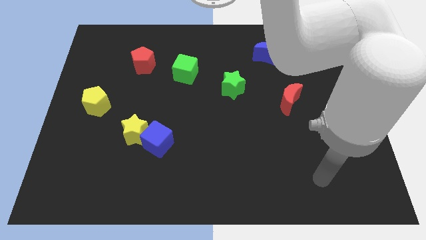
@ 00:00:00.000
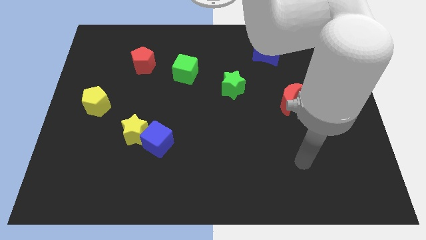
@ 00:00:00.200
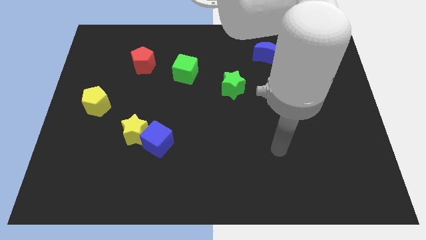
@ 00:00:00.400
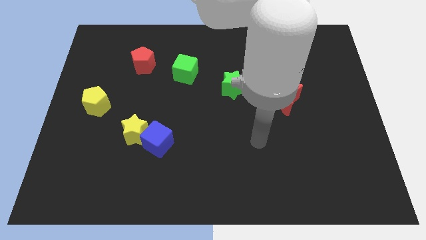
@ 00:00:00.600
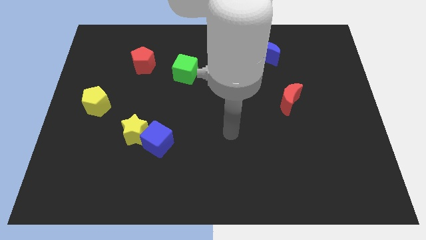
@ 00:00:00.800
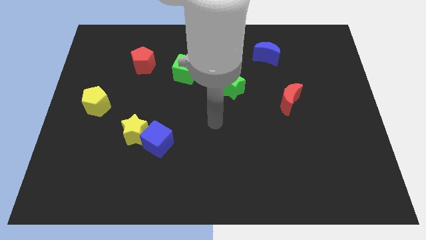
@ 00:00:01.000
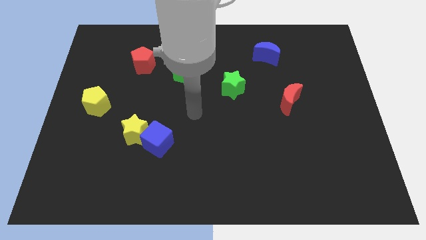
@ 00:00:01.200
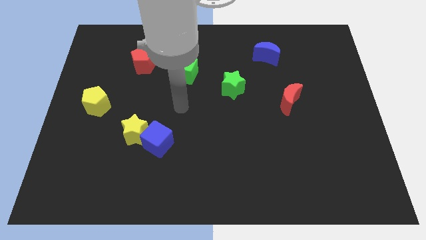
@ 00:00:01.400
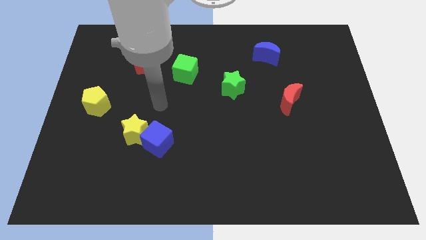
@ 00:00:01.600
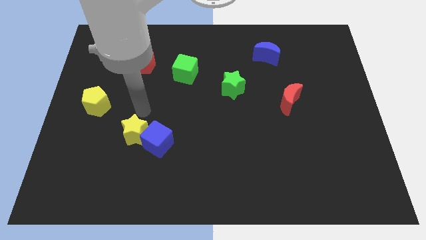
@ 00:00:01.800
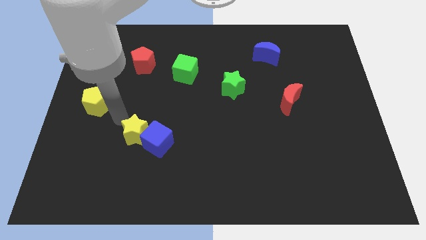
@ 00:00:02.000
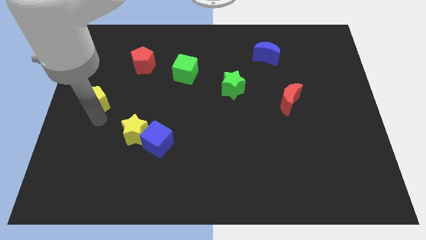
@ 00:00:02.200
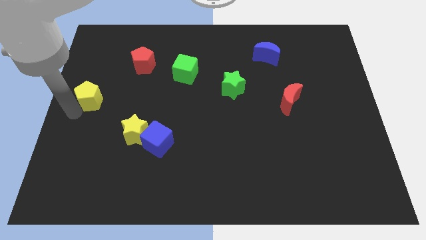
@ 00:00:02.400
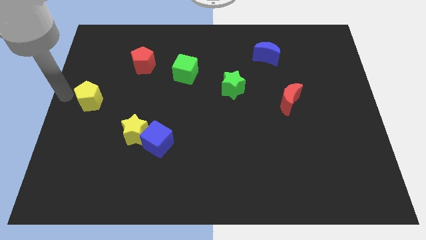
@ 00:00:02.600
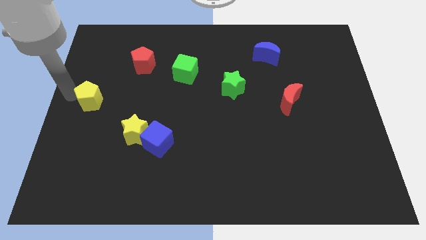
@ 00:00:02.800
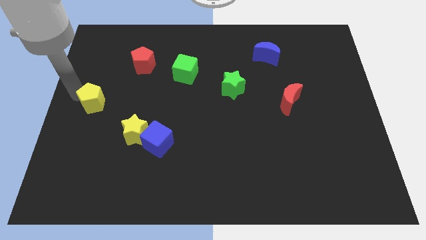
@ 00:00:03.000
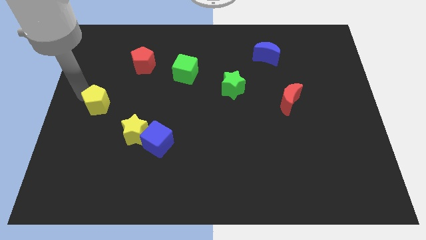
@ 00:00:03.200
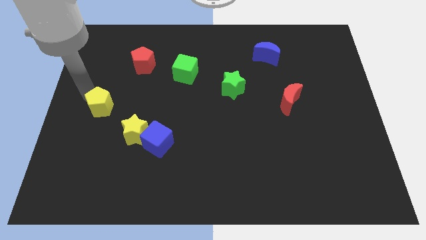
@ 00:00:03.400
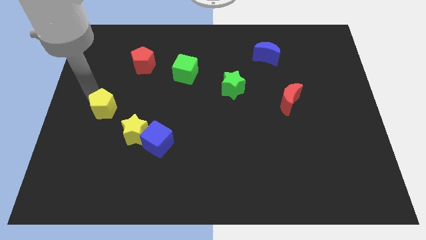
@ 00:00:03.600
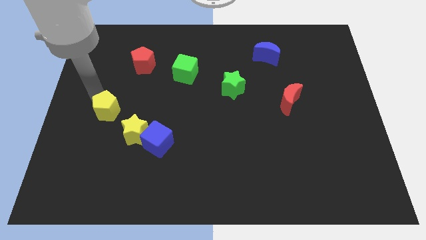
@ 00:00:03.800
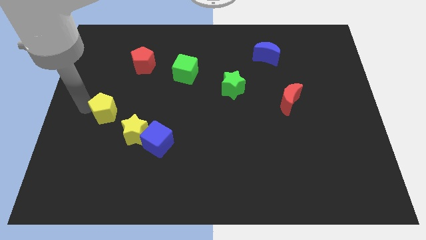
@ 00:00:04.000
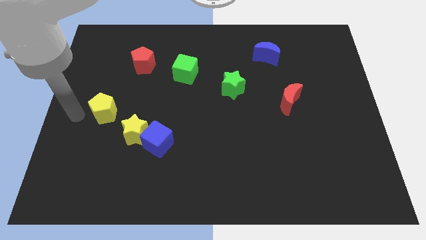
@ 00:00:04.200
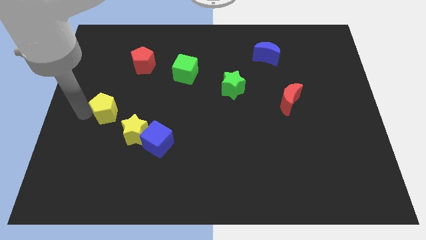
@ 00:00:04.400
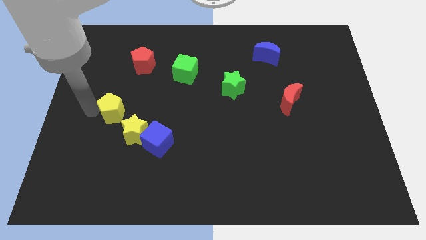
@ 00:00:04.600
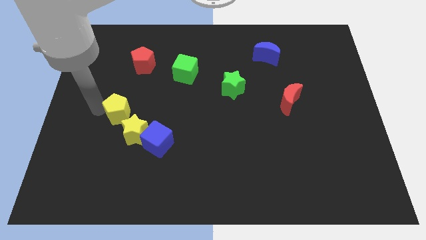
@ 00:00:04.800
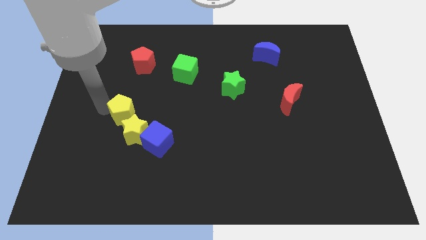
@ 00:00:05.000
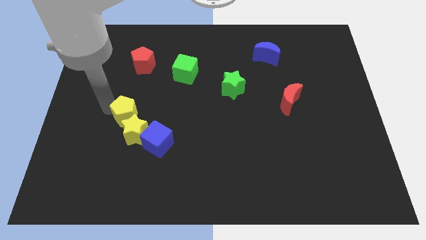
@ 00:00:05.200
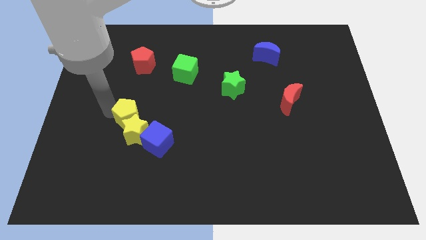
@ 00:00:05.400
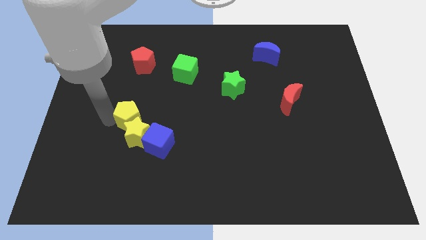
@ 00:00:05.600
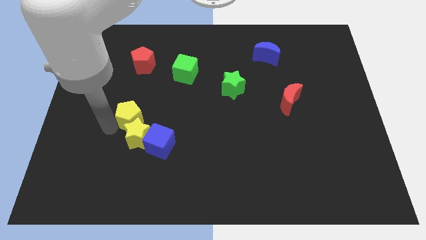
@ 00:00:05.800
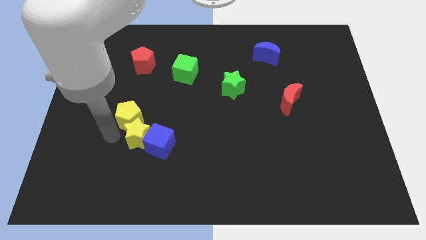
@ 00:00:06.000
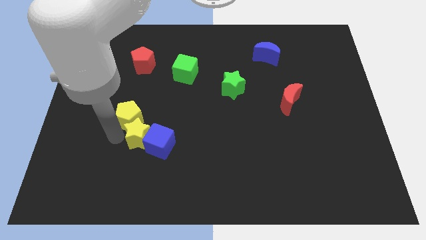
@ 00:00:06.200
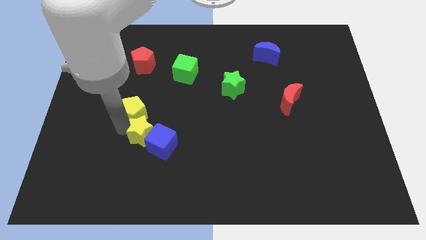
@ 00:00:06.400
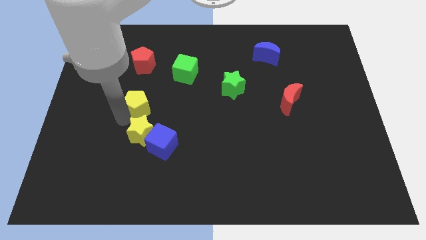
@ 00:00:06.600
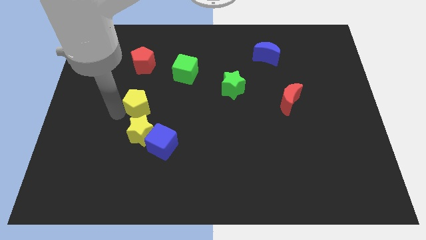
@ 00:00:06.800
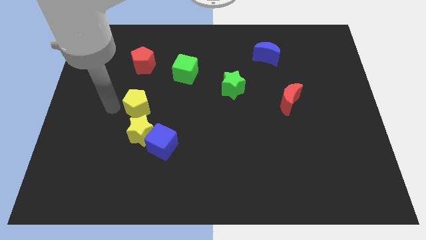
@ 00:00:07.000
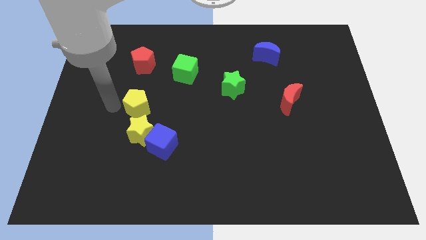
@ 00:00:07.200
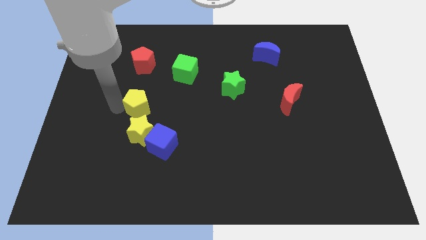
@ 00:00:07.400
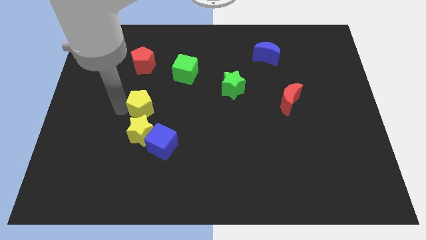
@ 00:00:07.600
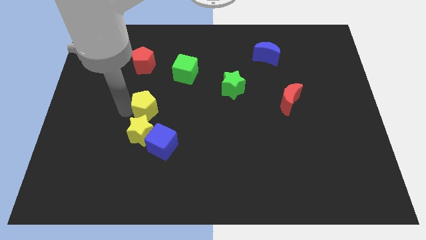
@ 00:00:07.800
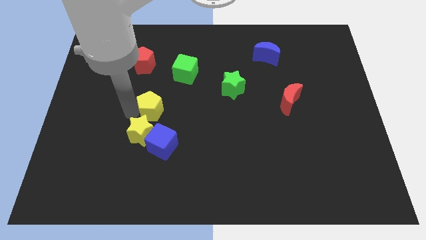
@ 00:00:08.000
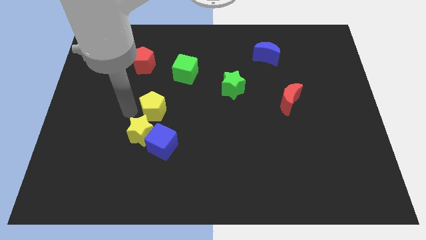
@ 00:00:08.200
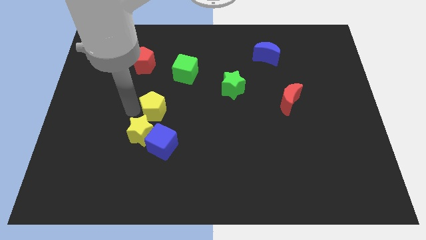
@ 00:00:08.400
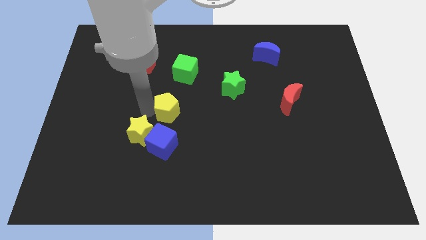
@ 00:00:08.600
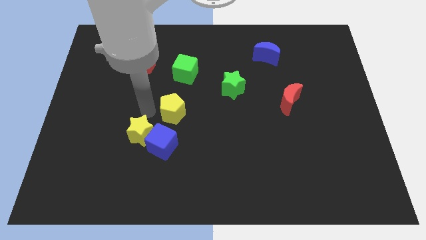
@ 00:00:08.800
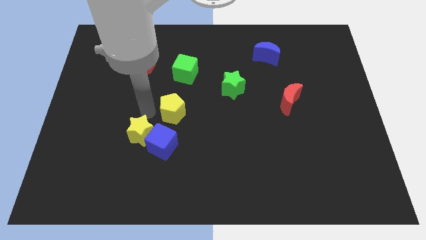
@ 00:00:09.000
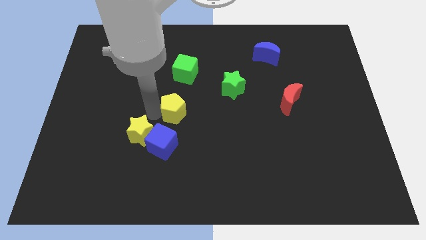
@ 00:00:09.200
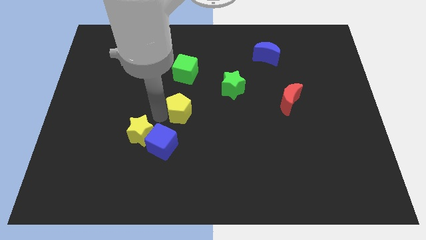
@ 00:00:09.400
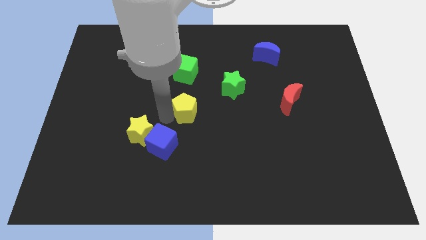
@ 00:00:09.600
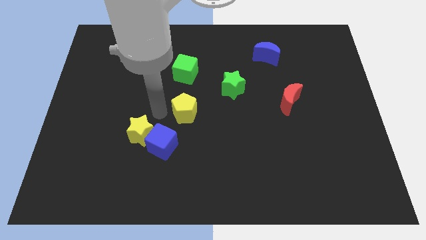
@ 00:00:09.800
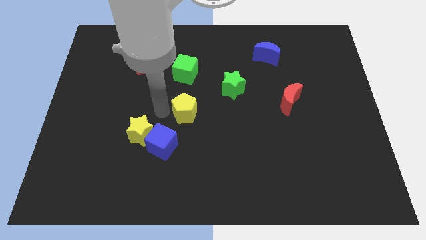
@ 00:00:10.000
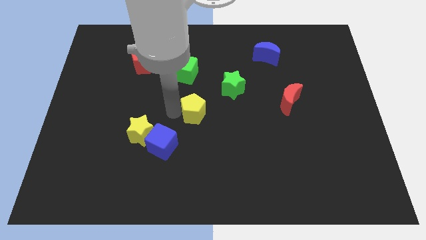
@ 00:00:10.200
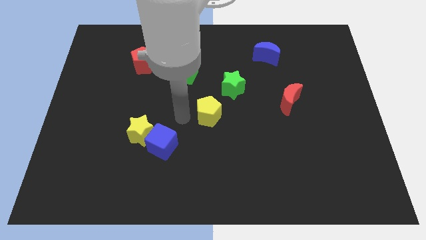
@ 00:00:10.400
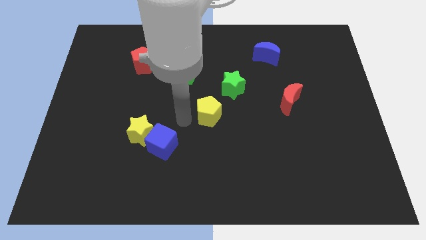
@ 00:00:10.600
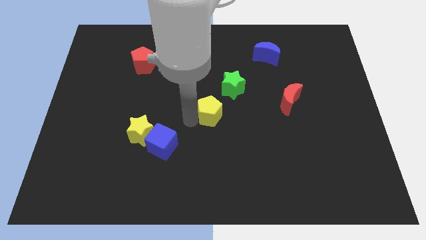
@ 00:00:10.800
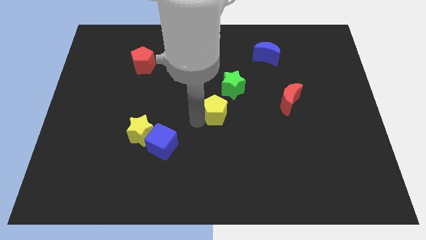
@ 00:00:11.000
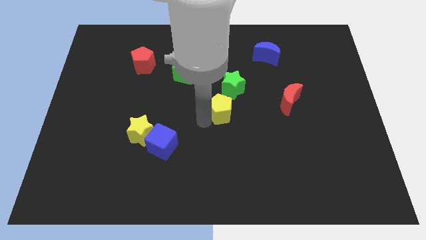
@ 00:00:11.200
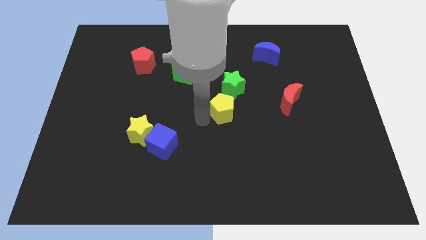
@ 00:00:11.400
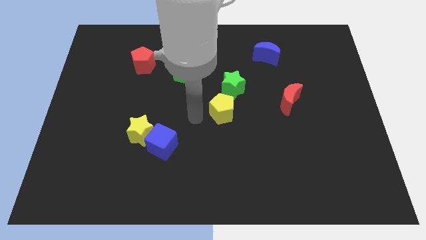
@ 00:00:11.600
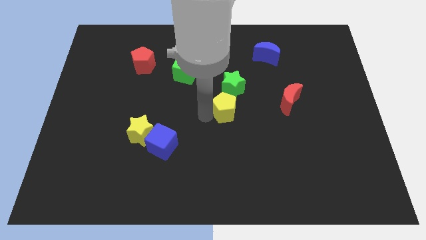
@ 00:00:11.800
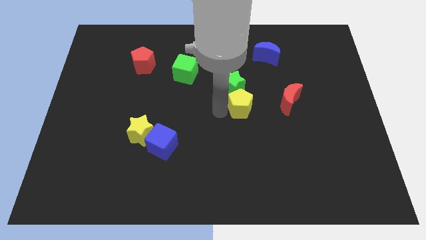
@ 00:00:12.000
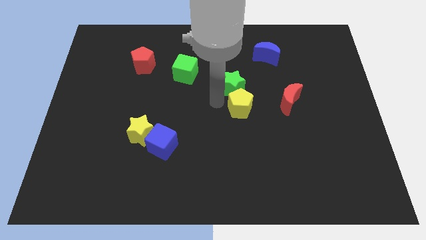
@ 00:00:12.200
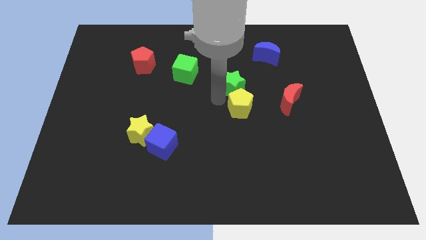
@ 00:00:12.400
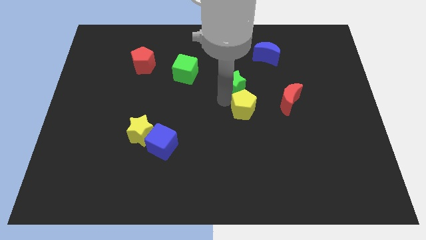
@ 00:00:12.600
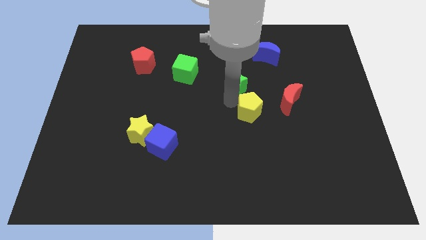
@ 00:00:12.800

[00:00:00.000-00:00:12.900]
move the yellow pentagon to the bottom left side of the red moon
